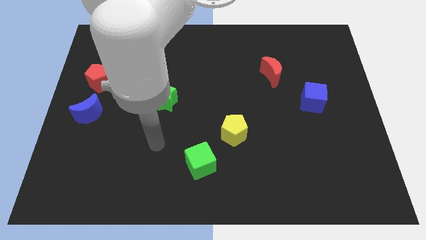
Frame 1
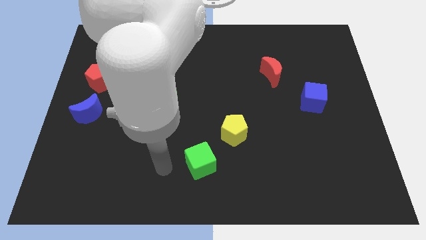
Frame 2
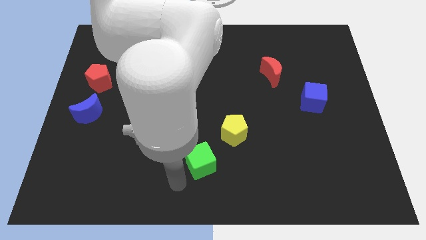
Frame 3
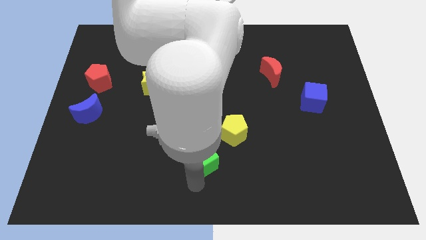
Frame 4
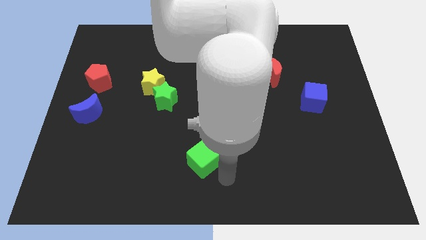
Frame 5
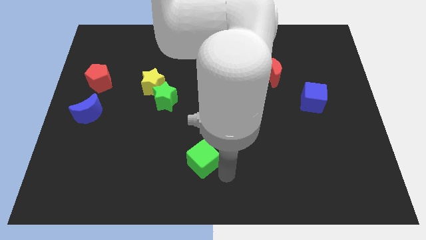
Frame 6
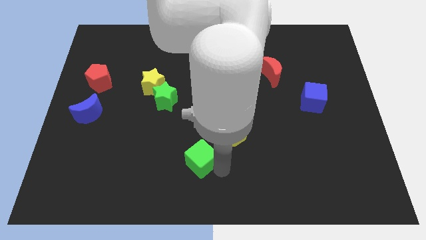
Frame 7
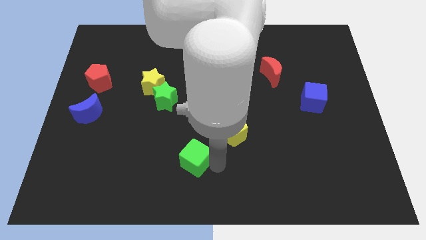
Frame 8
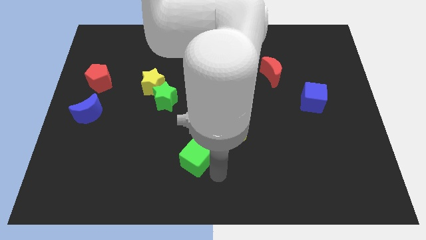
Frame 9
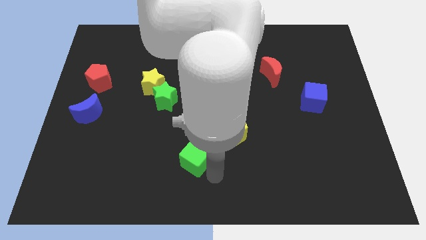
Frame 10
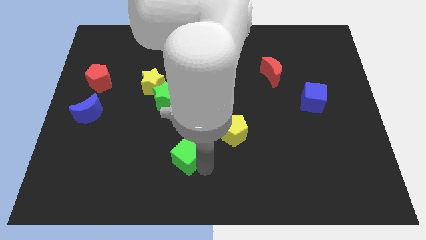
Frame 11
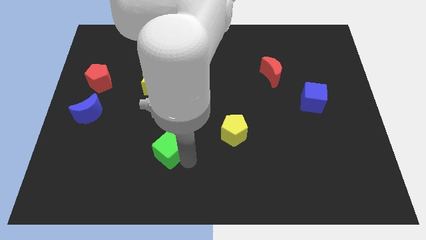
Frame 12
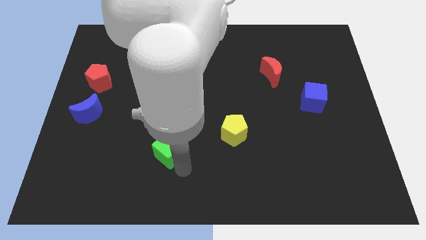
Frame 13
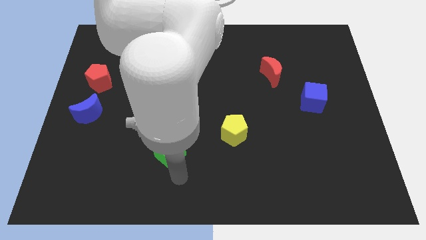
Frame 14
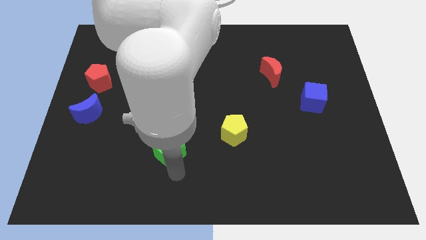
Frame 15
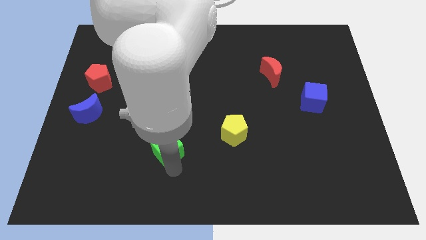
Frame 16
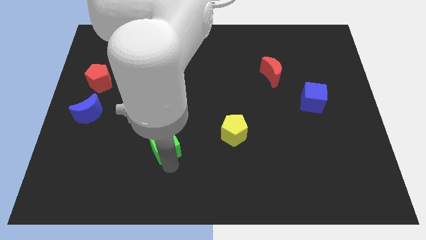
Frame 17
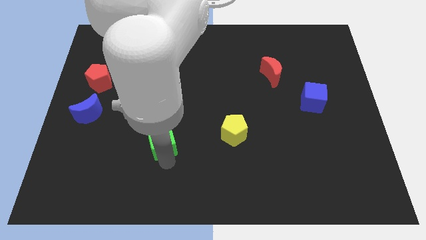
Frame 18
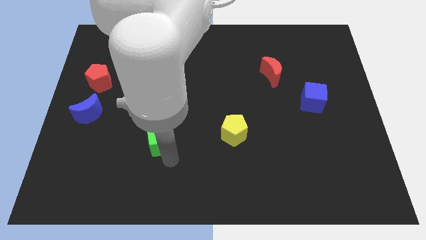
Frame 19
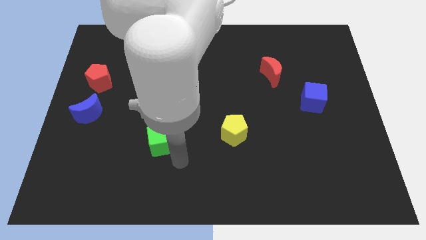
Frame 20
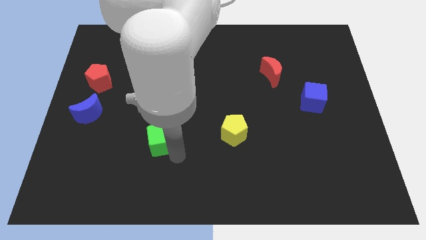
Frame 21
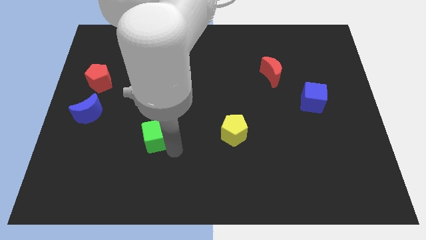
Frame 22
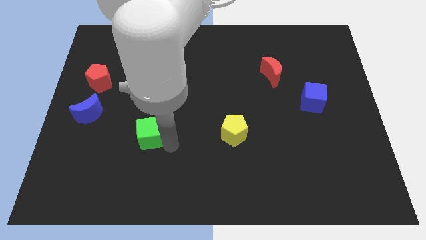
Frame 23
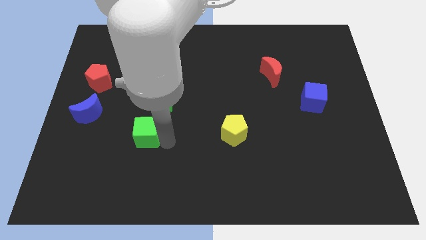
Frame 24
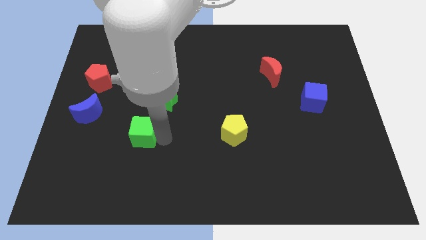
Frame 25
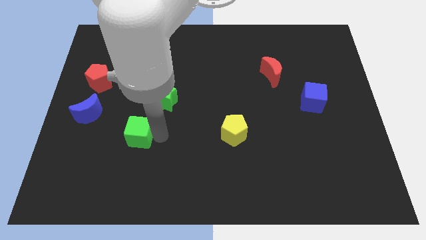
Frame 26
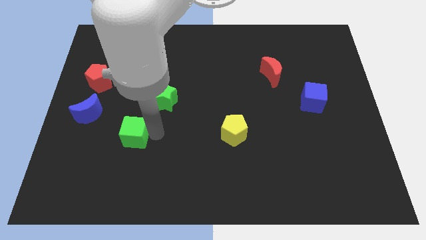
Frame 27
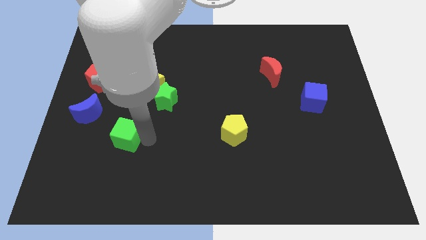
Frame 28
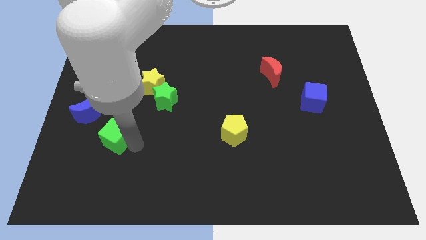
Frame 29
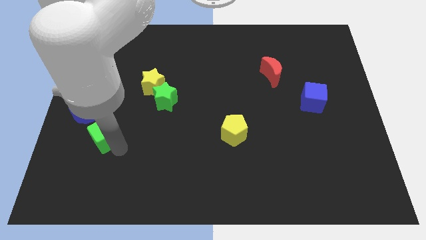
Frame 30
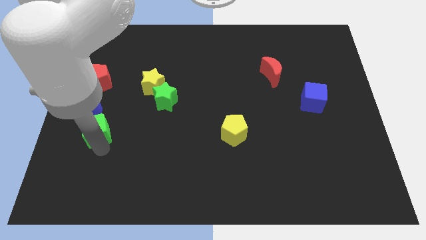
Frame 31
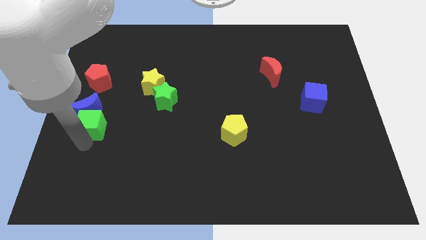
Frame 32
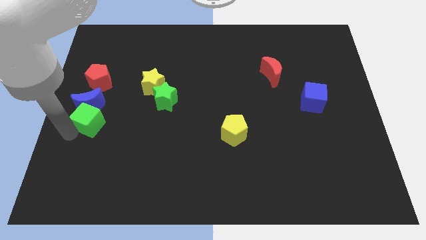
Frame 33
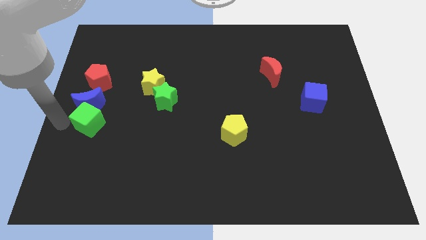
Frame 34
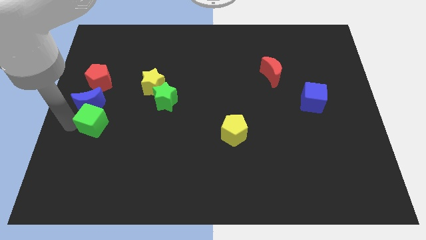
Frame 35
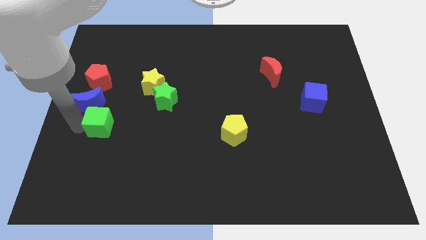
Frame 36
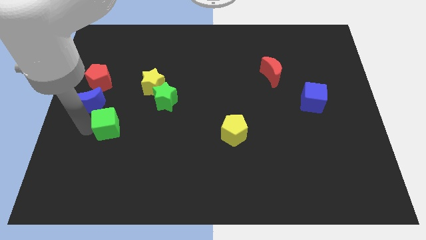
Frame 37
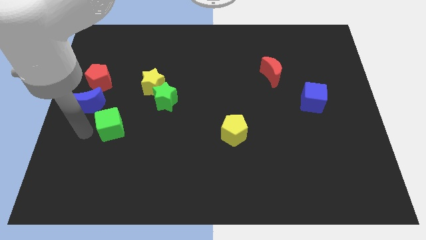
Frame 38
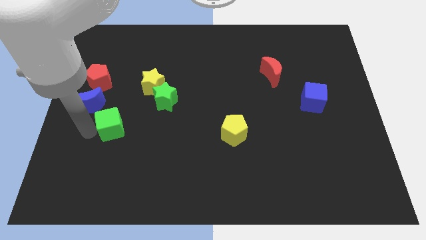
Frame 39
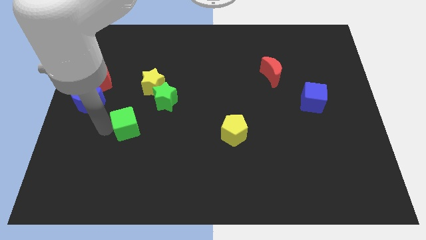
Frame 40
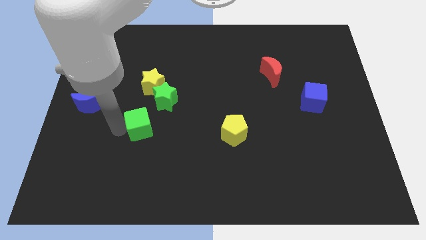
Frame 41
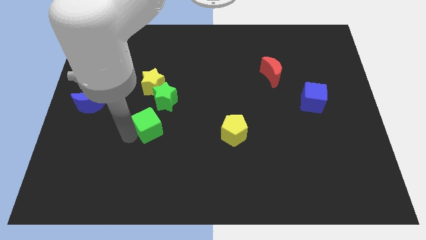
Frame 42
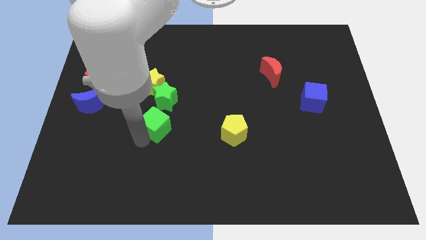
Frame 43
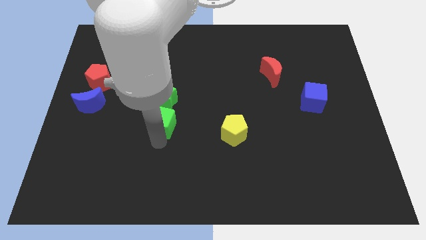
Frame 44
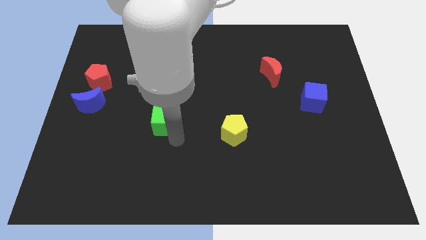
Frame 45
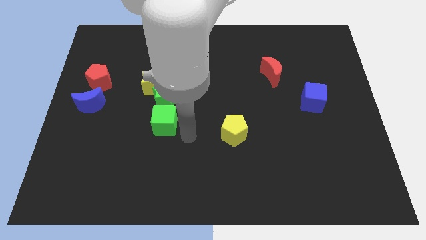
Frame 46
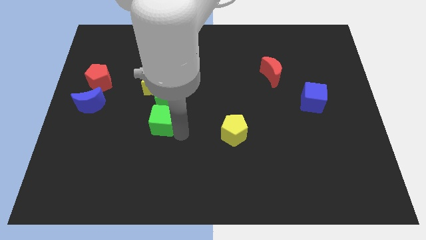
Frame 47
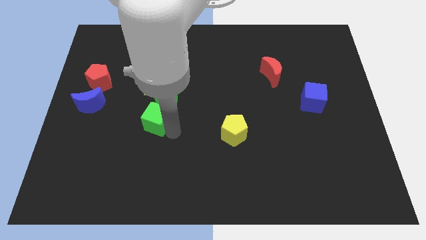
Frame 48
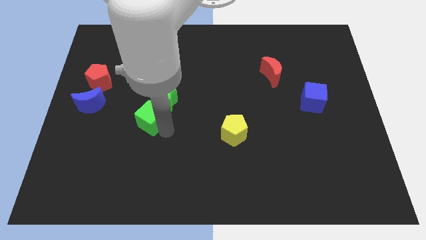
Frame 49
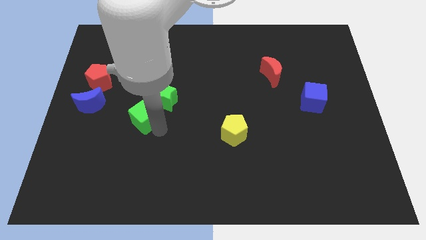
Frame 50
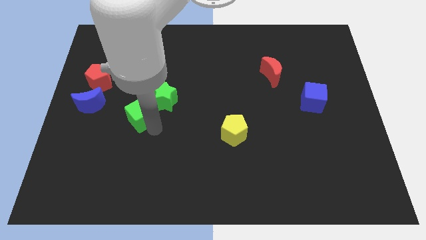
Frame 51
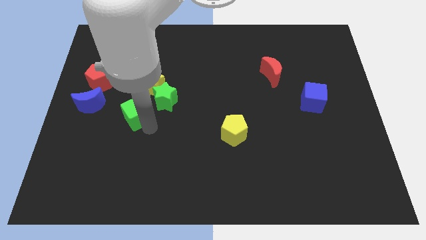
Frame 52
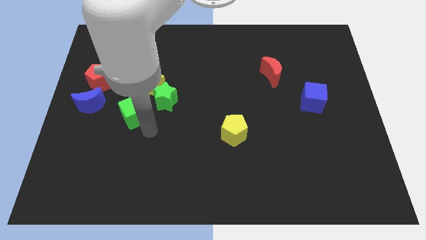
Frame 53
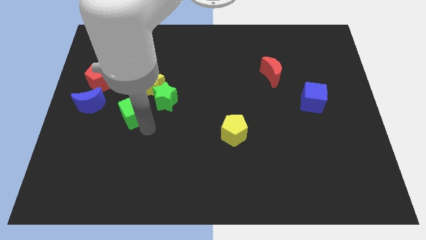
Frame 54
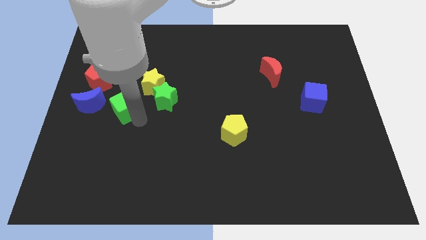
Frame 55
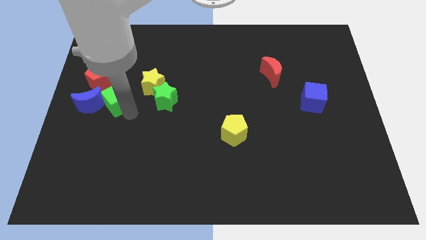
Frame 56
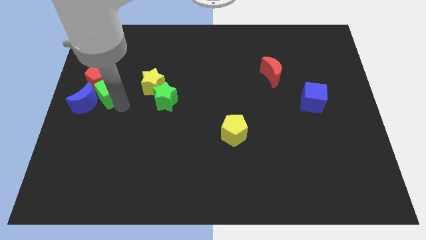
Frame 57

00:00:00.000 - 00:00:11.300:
push the green cube towards the red pentagon
